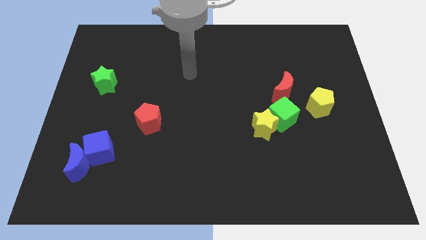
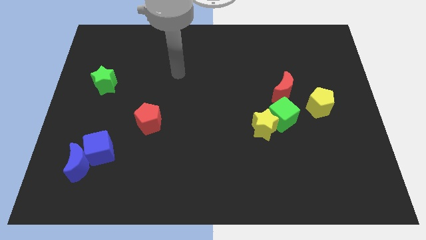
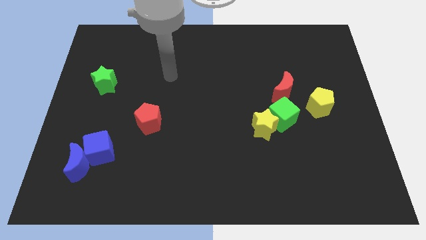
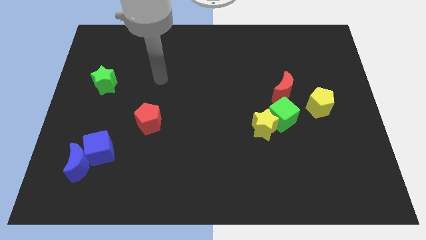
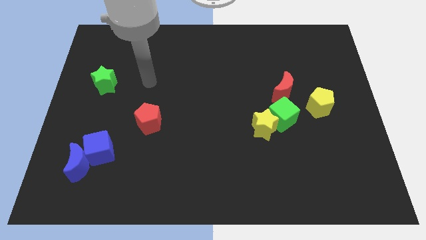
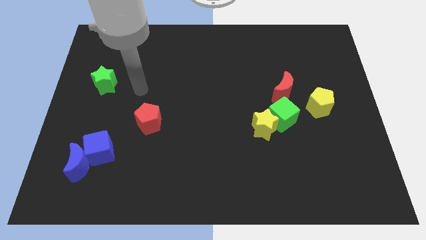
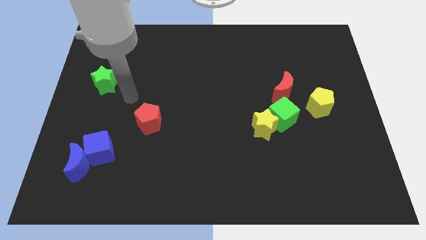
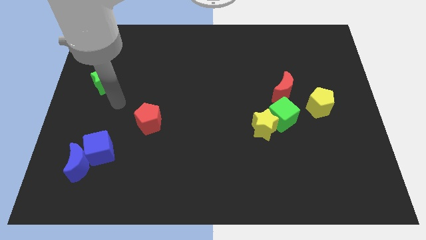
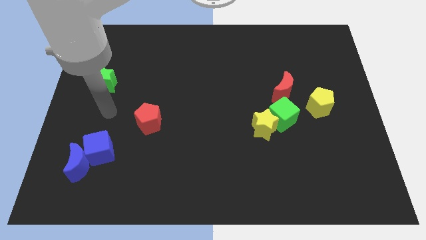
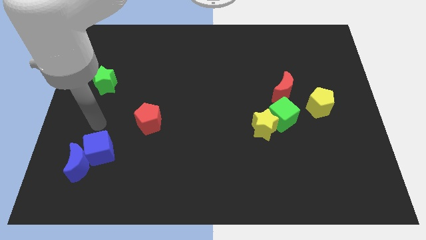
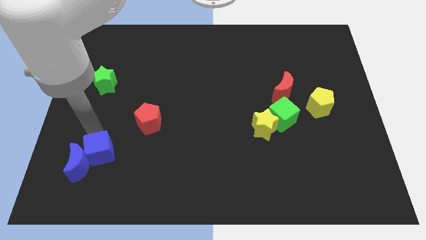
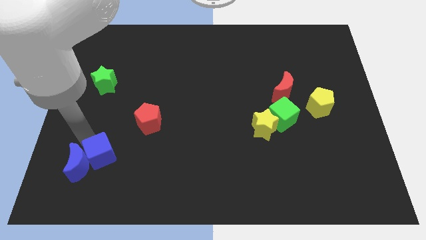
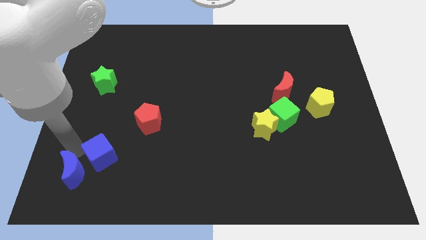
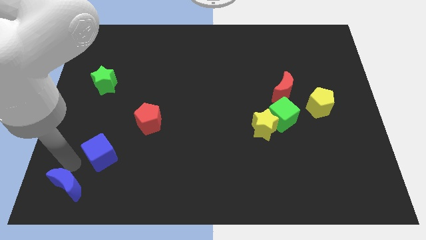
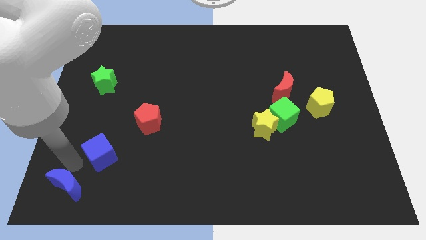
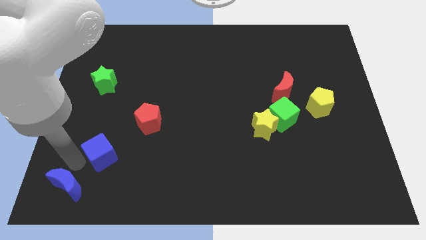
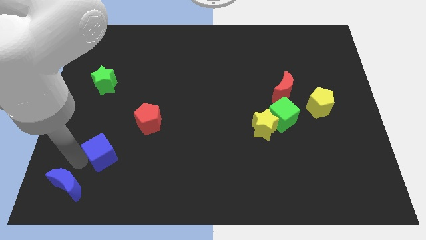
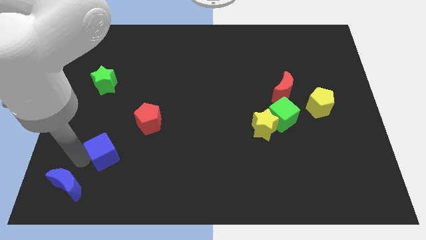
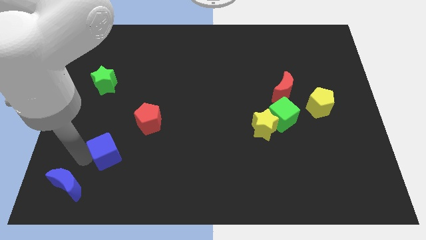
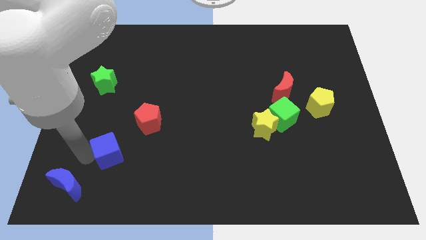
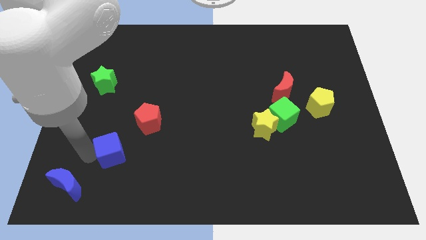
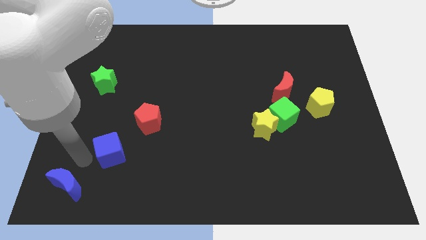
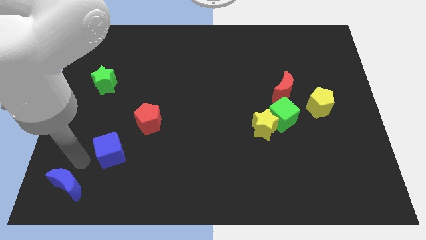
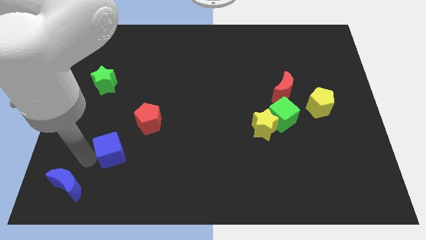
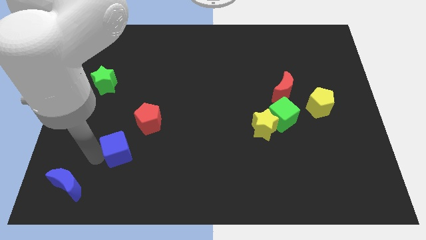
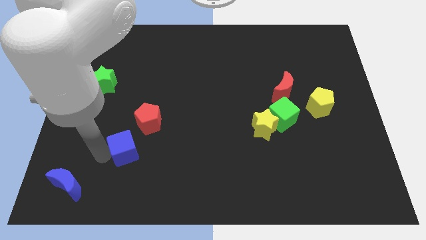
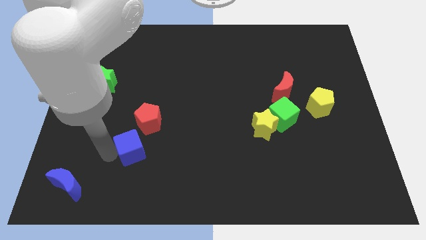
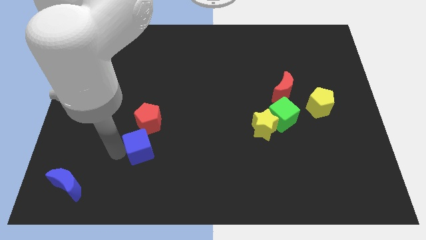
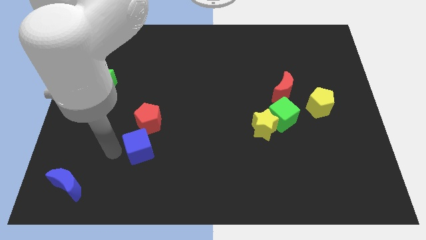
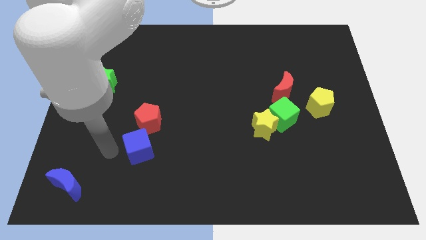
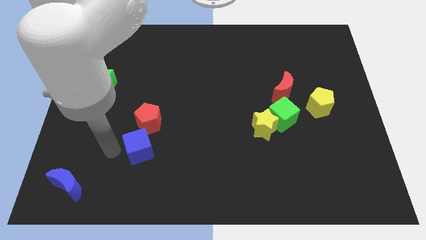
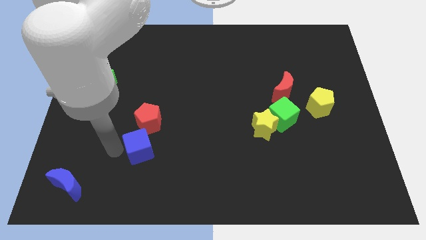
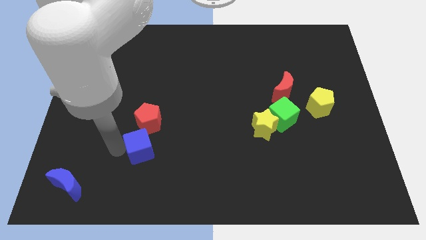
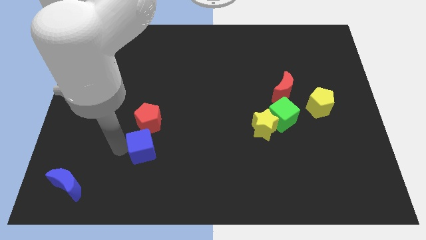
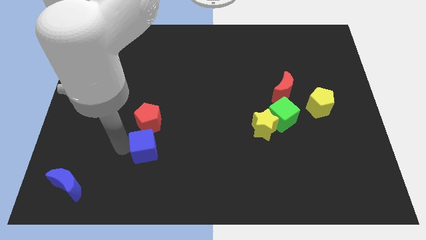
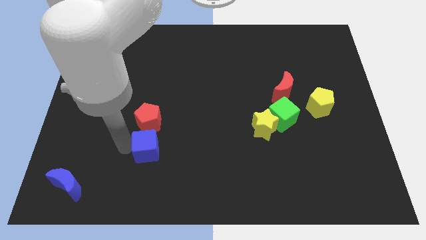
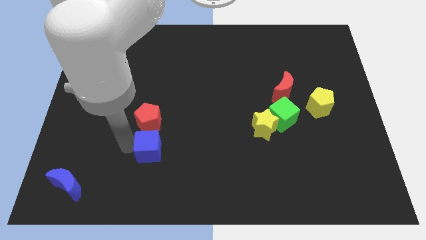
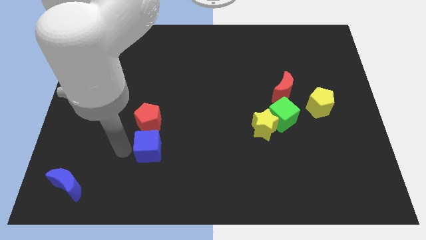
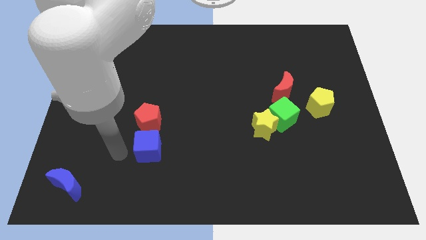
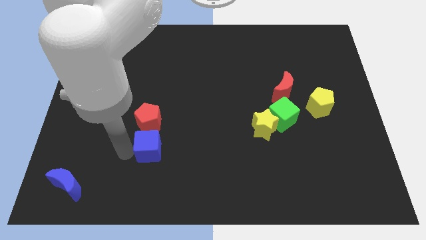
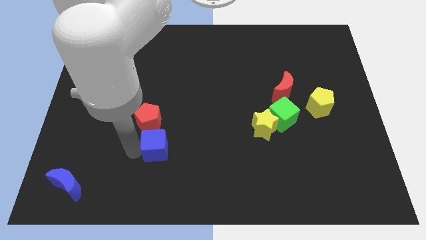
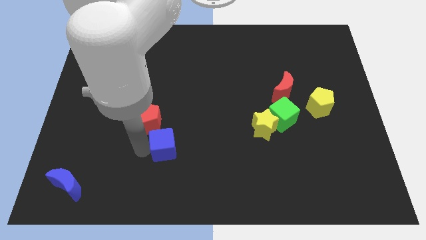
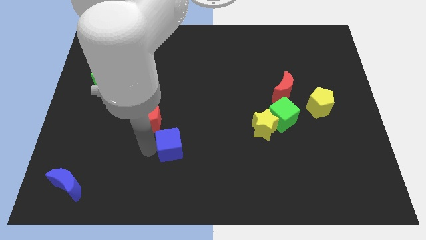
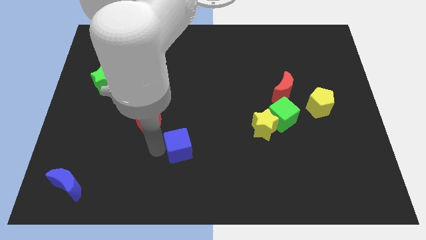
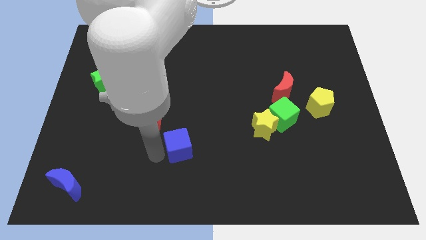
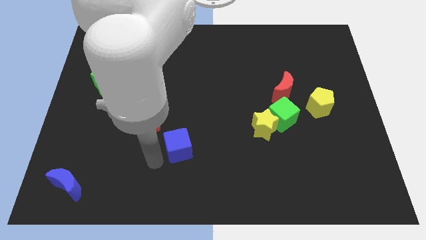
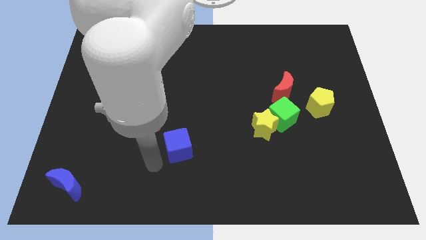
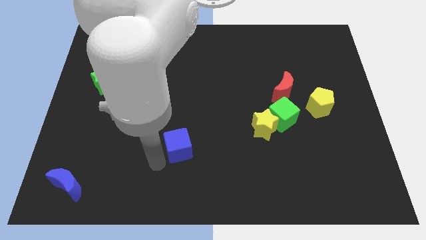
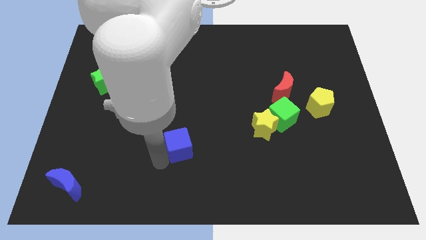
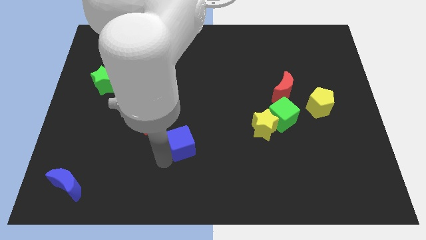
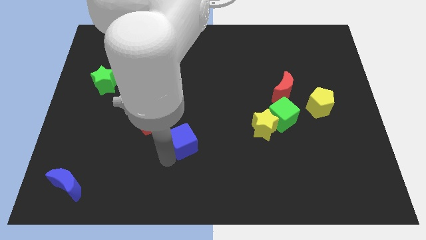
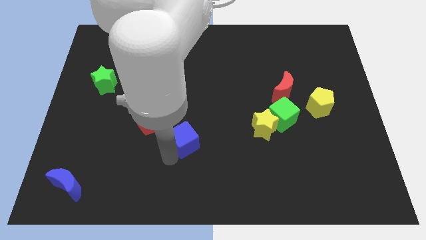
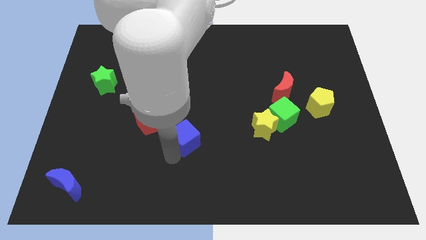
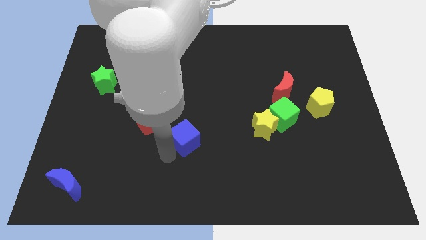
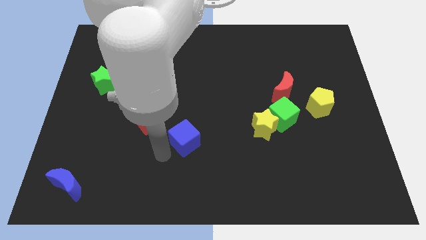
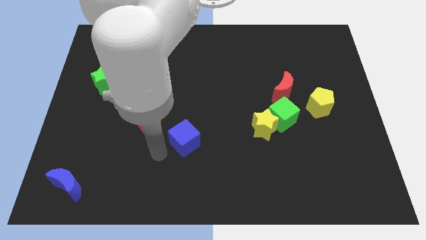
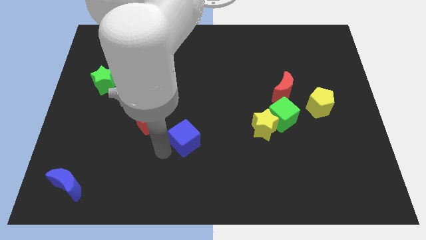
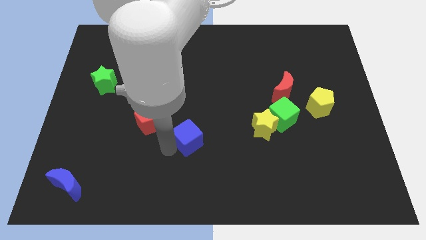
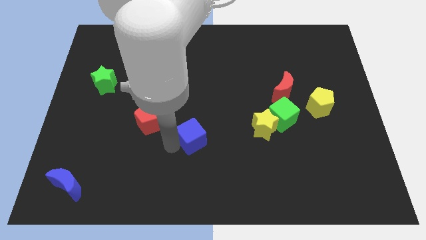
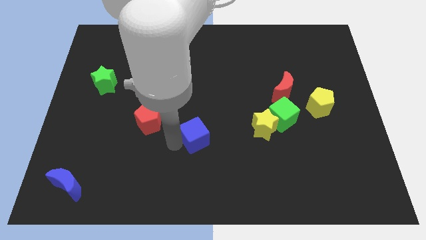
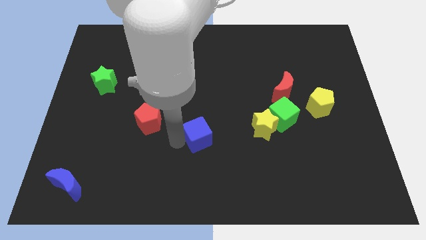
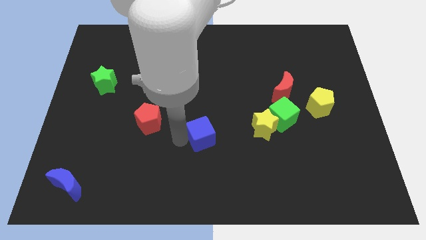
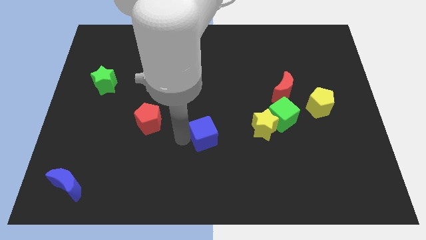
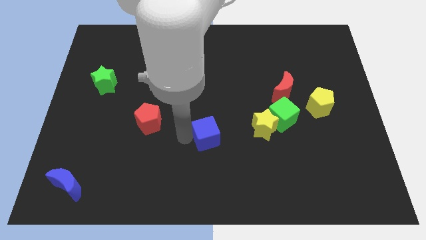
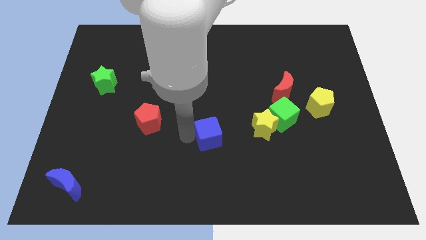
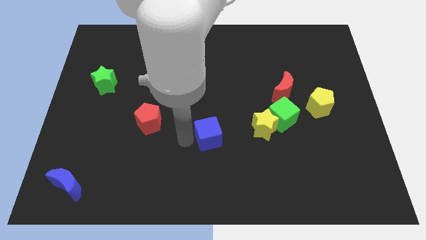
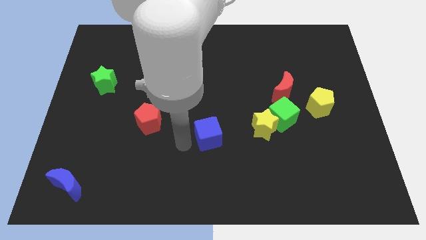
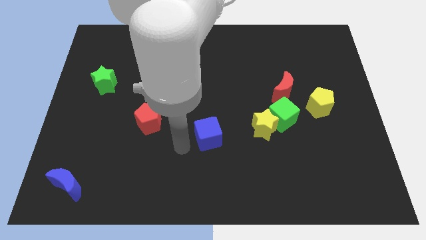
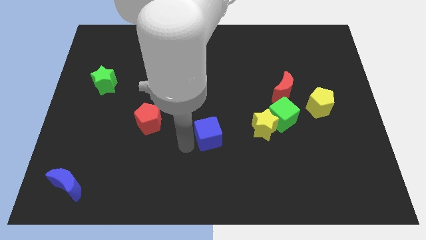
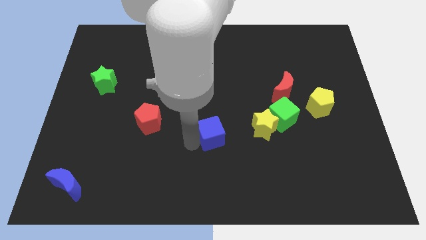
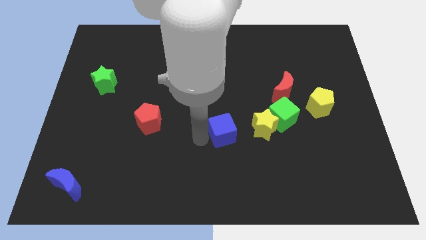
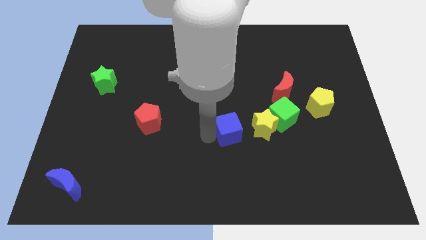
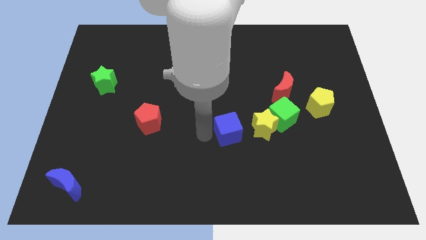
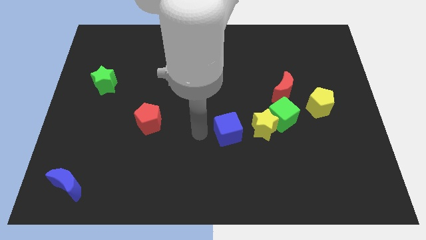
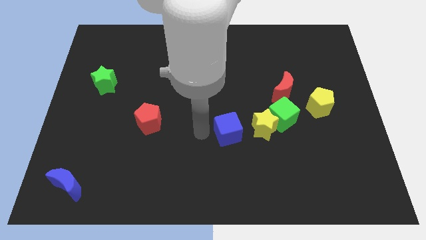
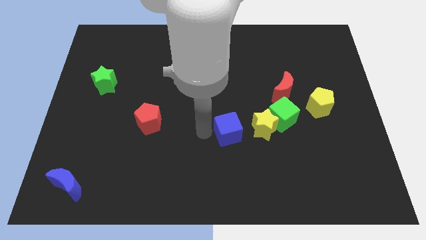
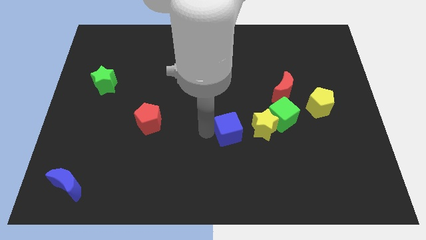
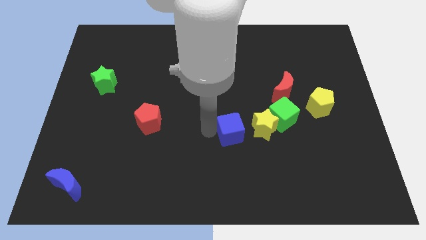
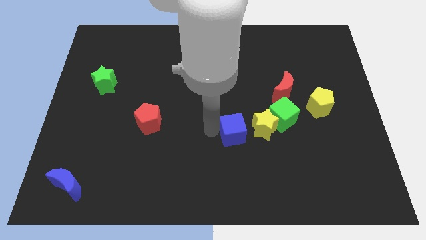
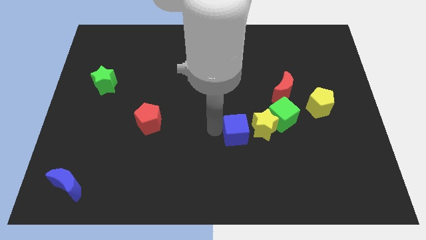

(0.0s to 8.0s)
push the blue cube to the yellow star
